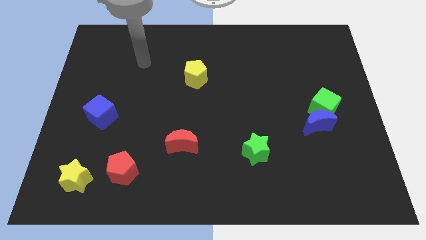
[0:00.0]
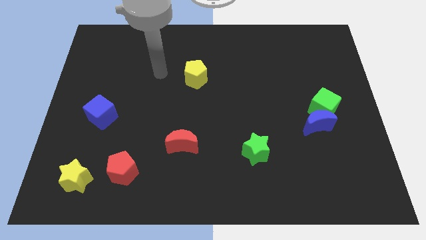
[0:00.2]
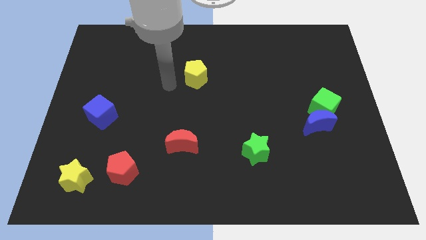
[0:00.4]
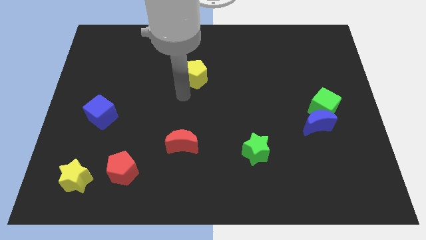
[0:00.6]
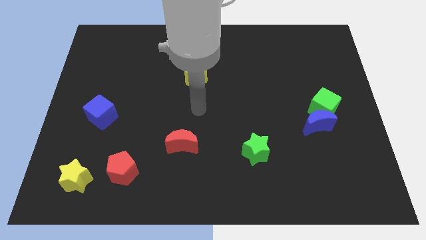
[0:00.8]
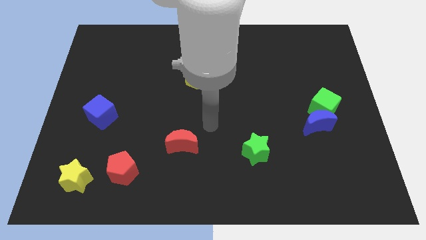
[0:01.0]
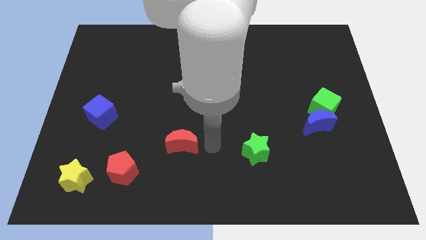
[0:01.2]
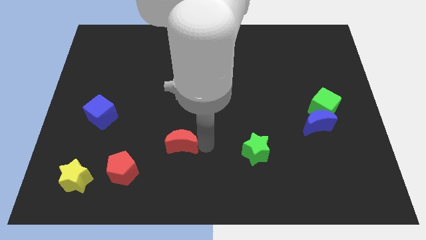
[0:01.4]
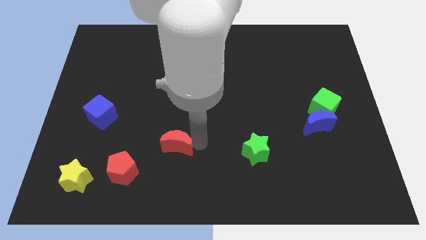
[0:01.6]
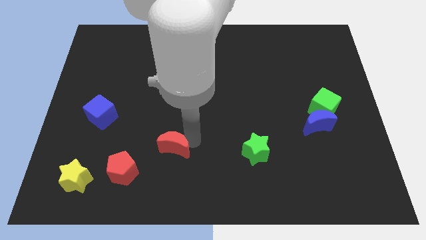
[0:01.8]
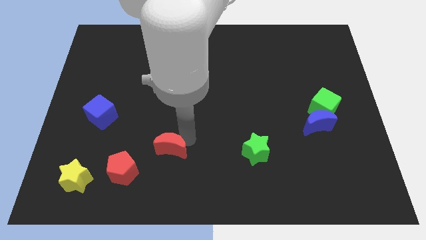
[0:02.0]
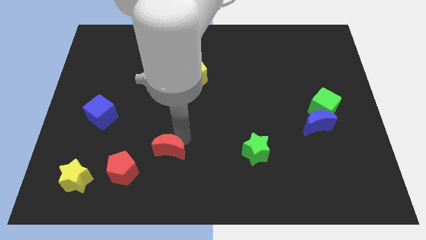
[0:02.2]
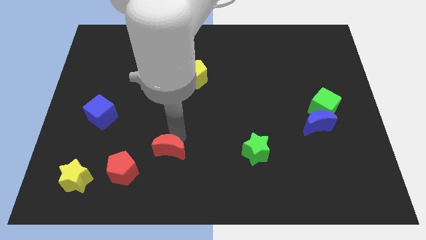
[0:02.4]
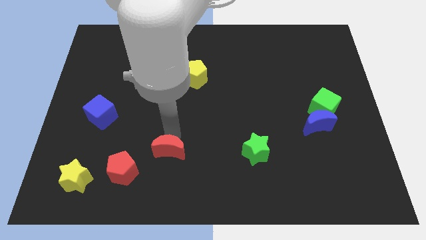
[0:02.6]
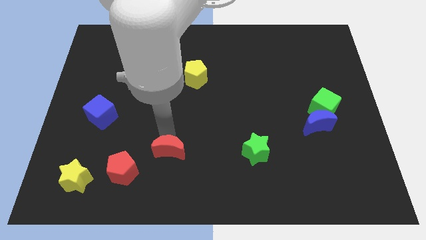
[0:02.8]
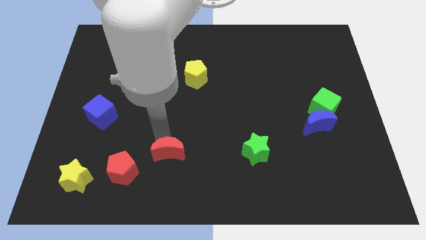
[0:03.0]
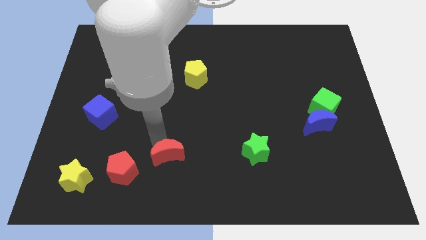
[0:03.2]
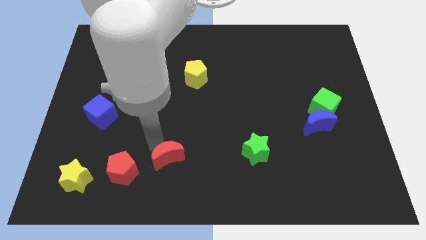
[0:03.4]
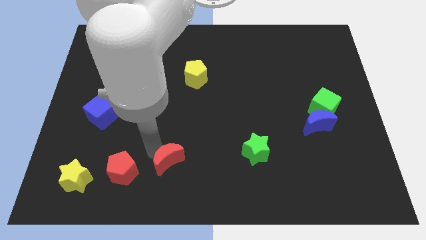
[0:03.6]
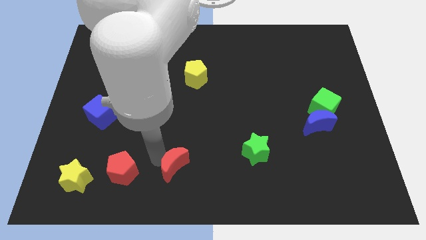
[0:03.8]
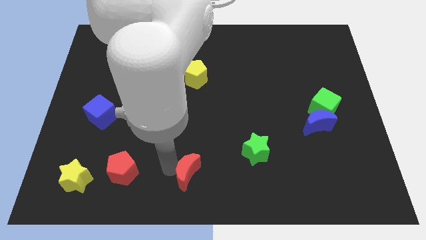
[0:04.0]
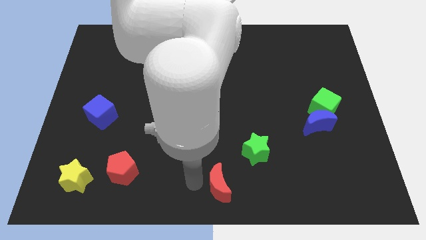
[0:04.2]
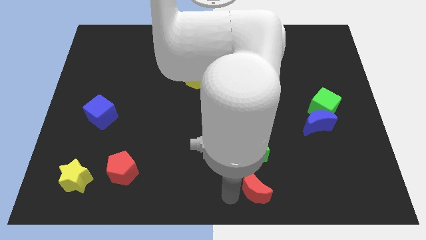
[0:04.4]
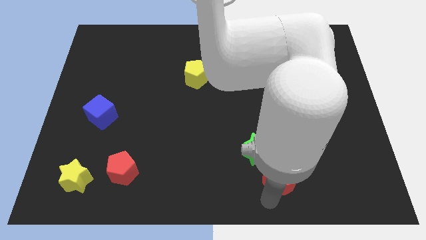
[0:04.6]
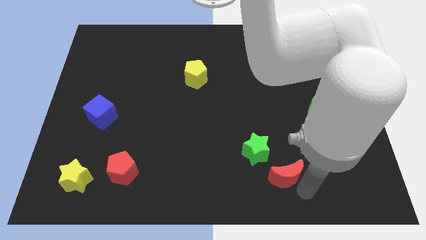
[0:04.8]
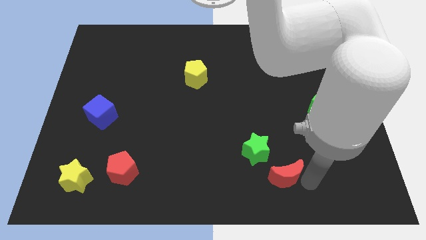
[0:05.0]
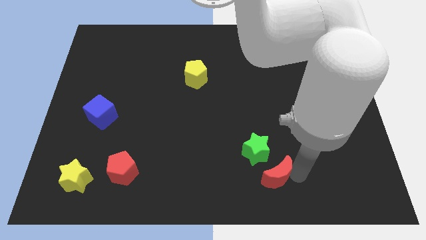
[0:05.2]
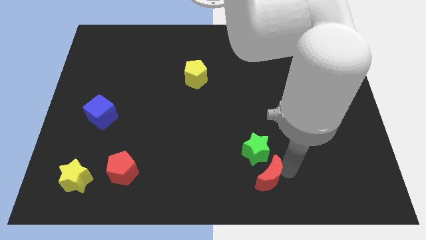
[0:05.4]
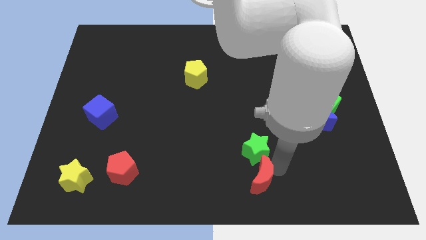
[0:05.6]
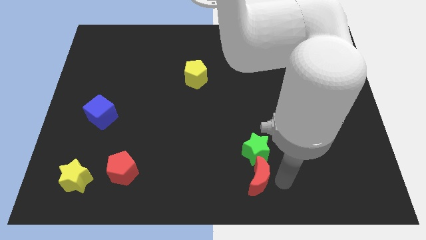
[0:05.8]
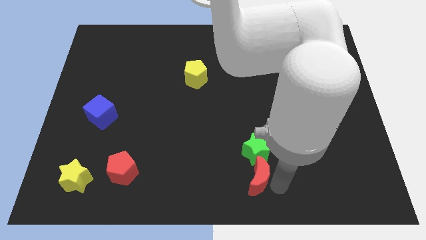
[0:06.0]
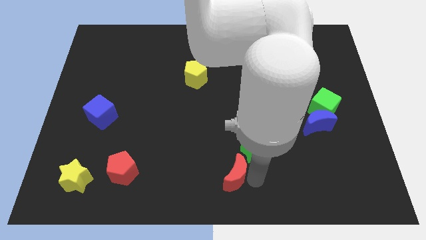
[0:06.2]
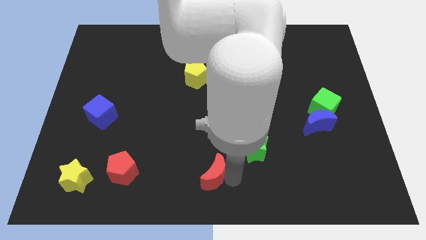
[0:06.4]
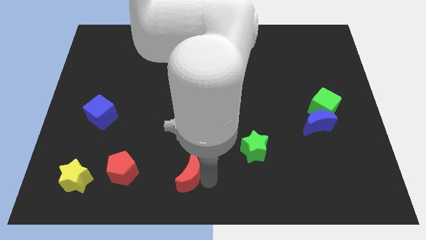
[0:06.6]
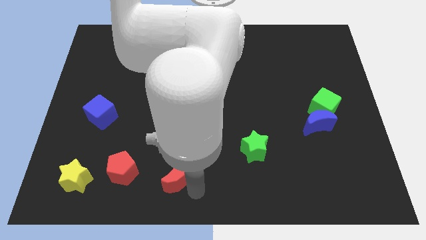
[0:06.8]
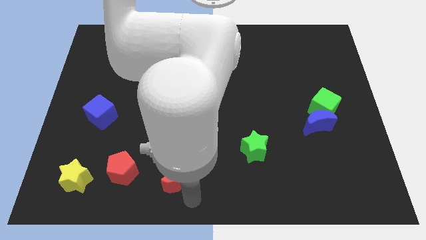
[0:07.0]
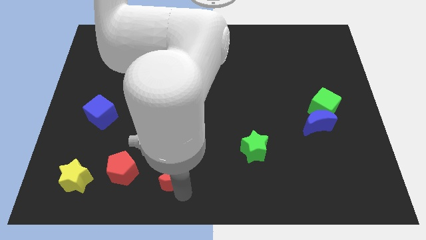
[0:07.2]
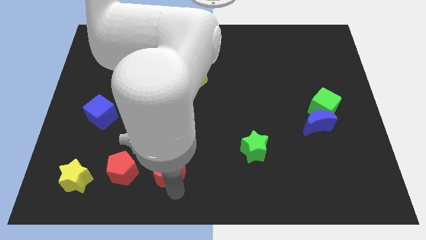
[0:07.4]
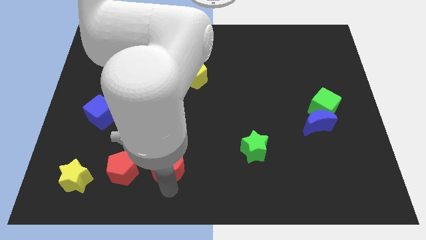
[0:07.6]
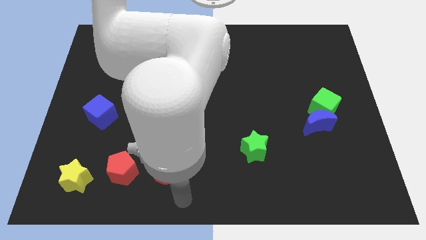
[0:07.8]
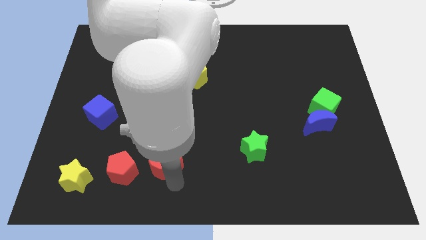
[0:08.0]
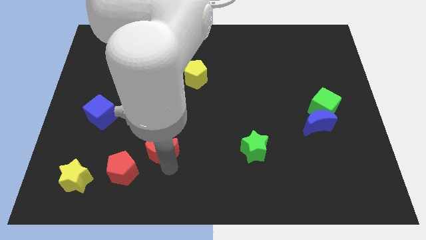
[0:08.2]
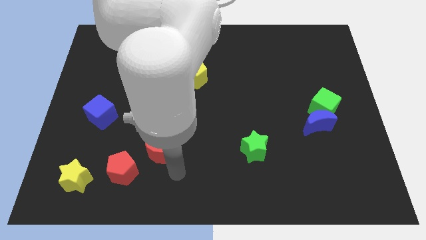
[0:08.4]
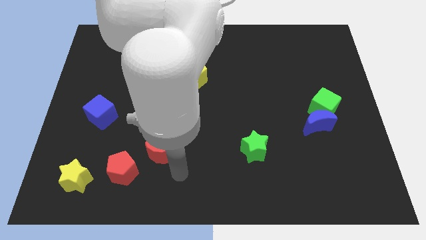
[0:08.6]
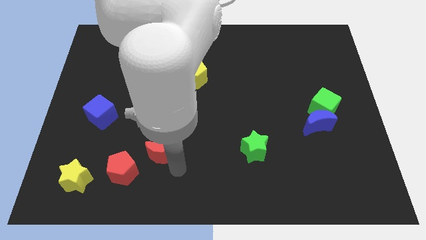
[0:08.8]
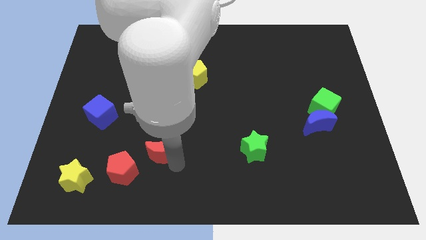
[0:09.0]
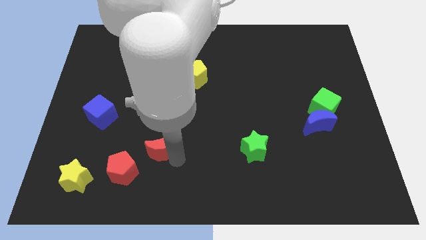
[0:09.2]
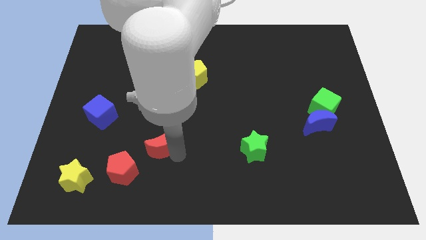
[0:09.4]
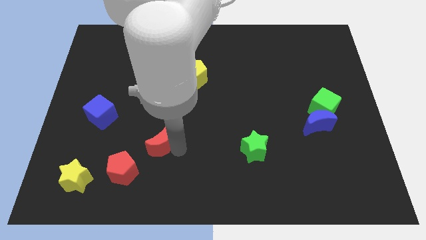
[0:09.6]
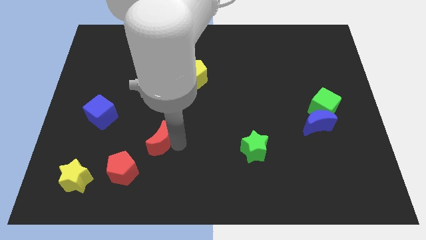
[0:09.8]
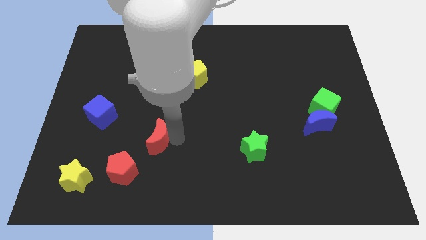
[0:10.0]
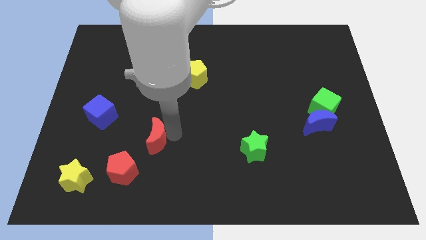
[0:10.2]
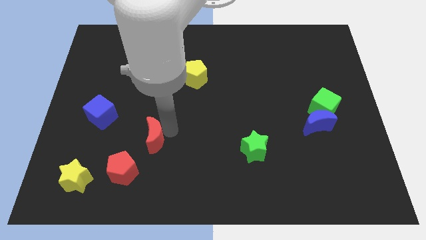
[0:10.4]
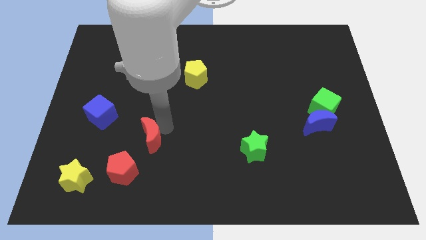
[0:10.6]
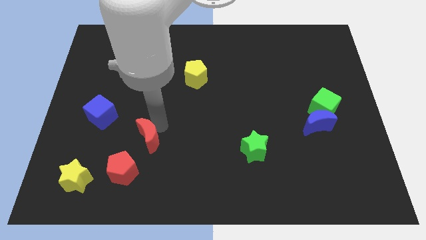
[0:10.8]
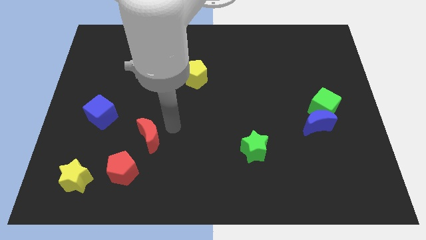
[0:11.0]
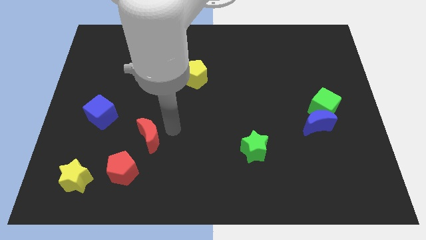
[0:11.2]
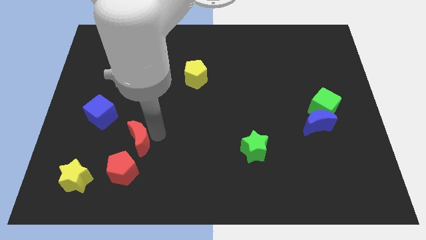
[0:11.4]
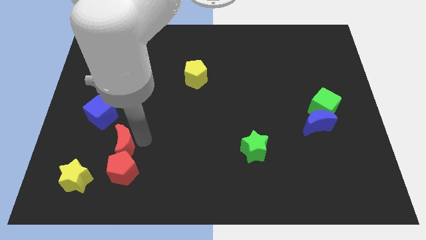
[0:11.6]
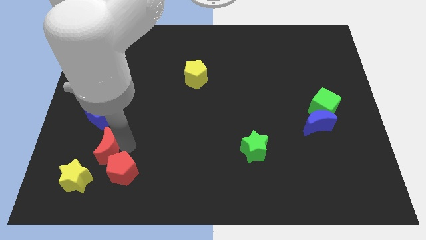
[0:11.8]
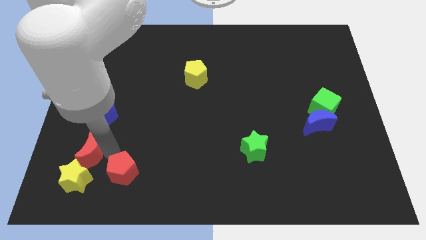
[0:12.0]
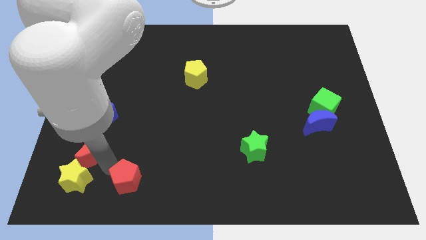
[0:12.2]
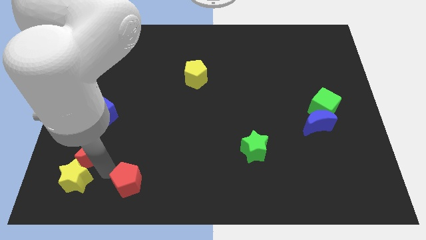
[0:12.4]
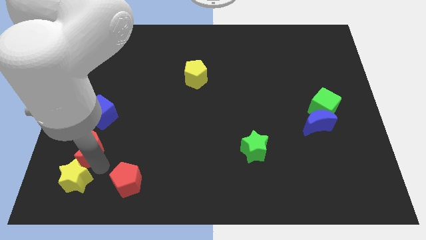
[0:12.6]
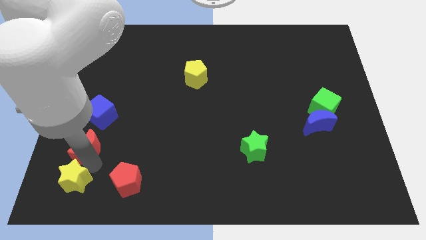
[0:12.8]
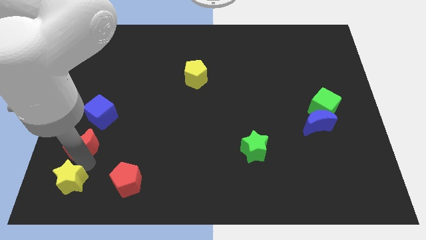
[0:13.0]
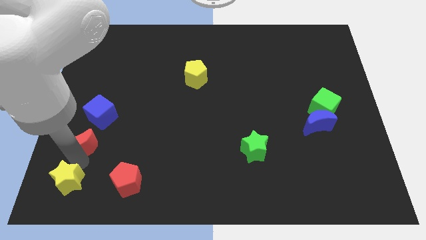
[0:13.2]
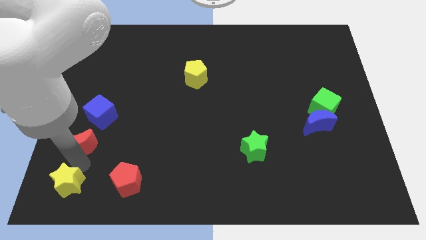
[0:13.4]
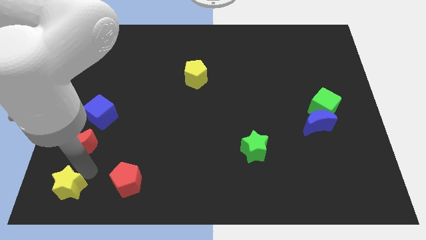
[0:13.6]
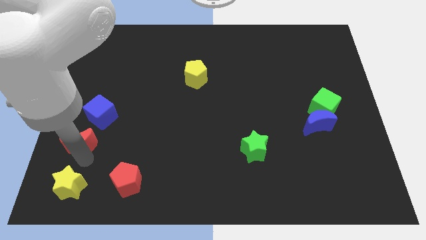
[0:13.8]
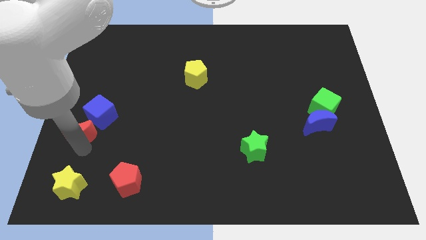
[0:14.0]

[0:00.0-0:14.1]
put the red moon to the left side
